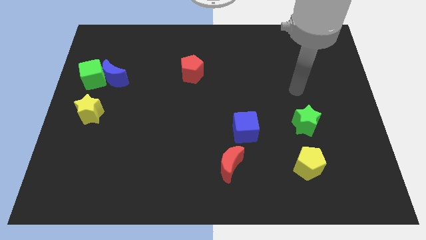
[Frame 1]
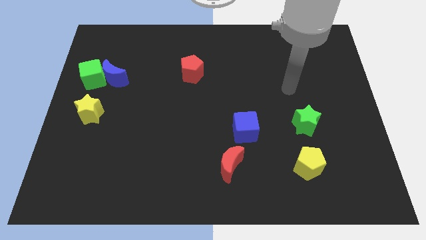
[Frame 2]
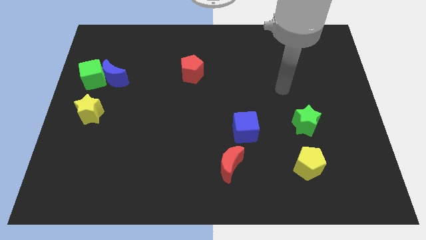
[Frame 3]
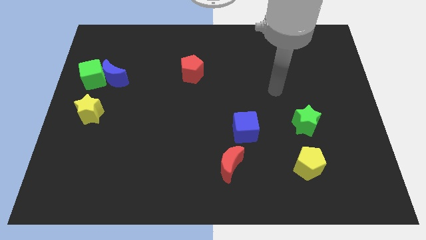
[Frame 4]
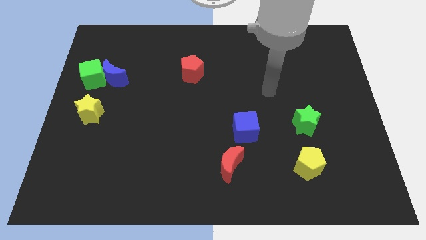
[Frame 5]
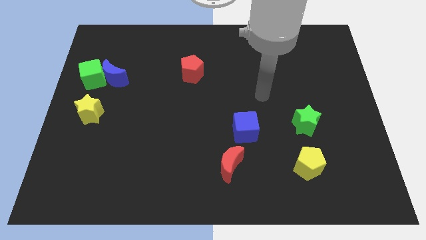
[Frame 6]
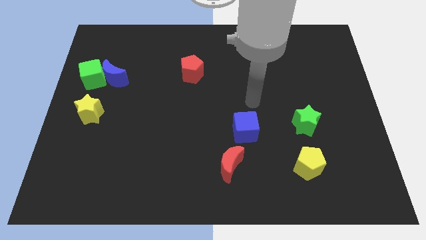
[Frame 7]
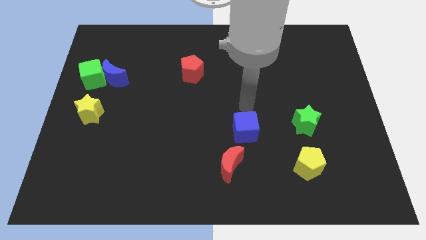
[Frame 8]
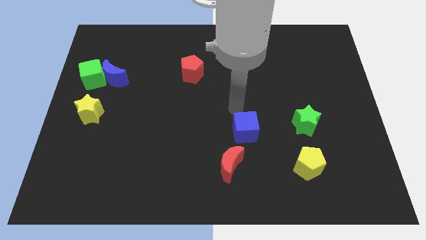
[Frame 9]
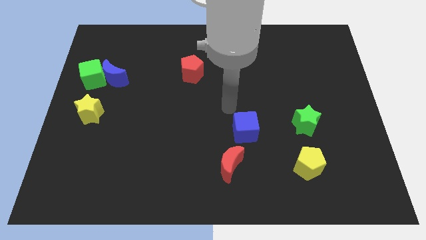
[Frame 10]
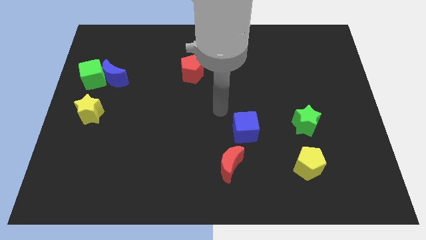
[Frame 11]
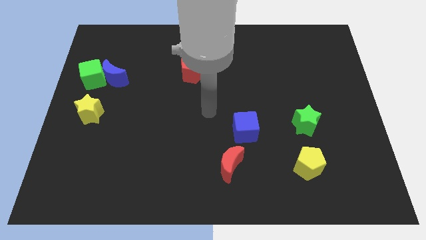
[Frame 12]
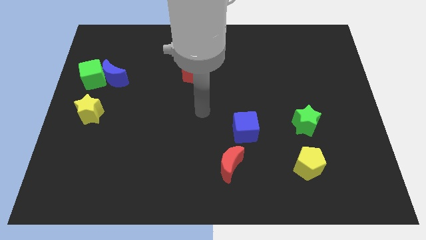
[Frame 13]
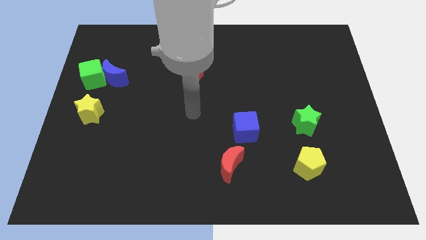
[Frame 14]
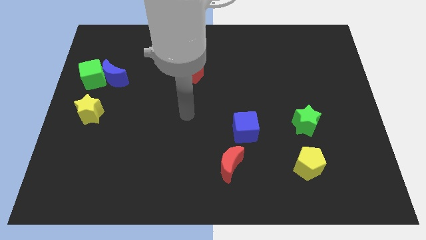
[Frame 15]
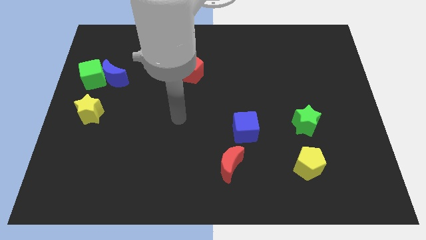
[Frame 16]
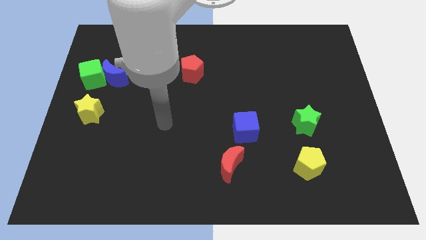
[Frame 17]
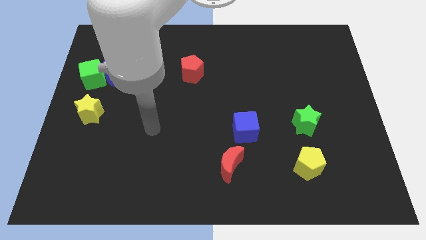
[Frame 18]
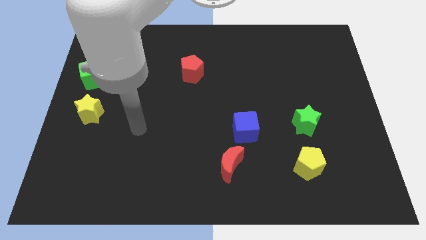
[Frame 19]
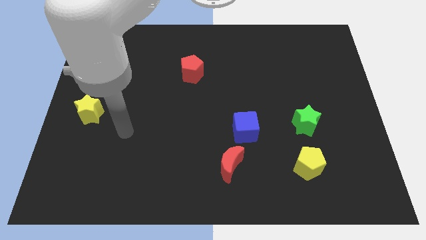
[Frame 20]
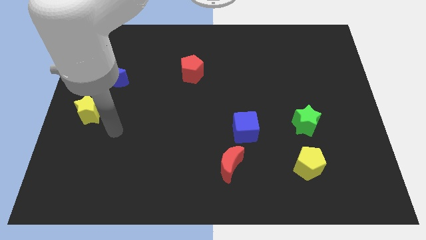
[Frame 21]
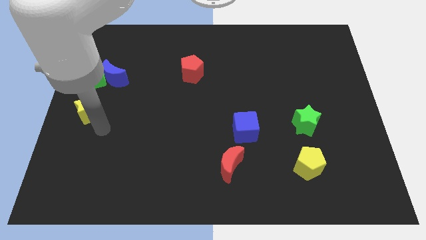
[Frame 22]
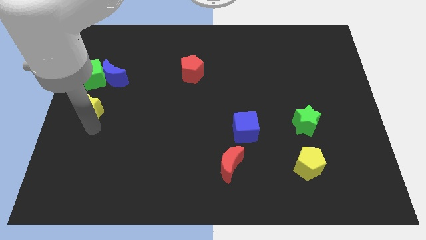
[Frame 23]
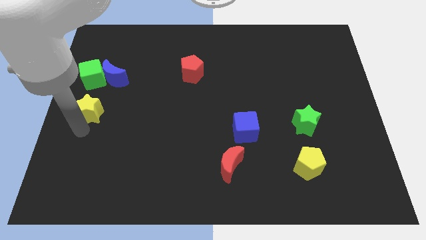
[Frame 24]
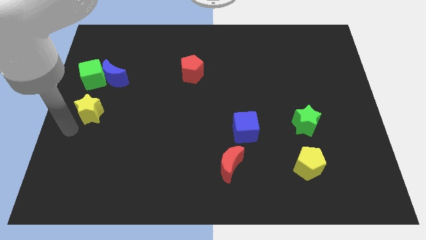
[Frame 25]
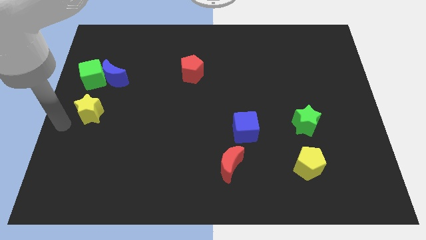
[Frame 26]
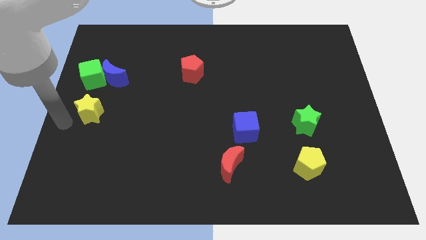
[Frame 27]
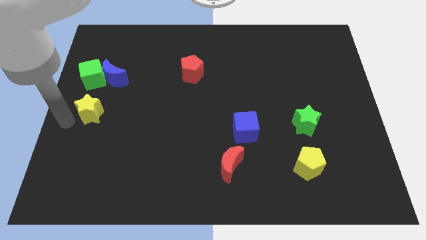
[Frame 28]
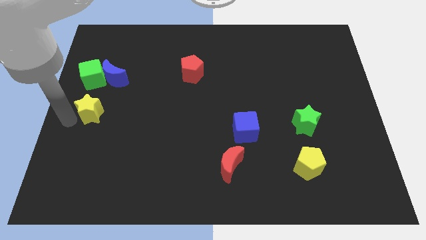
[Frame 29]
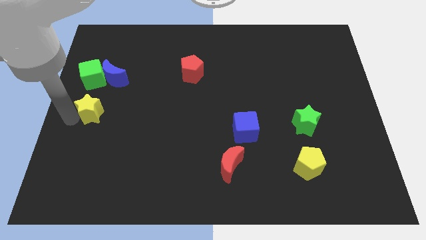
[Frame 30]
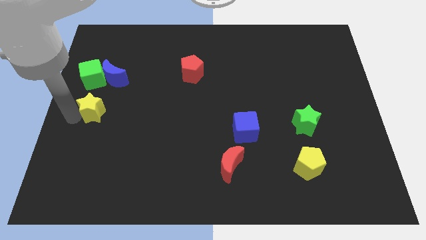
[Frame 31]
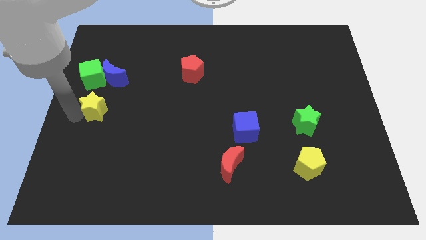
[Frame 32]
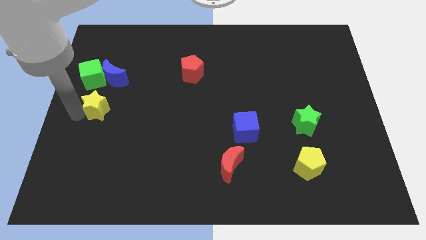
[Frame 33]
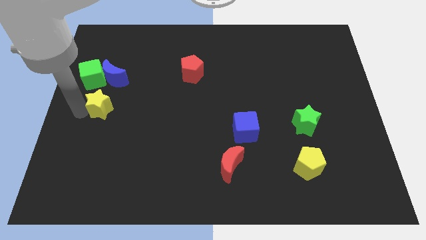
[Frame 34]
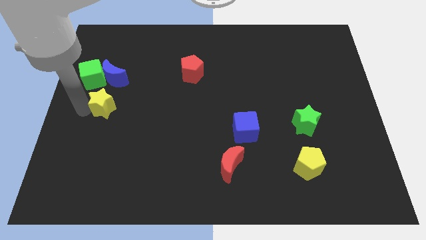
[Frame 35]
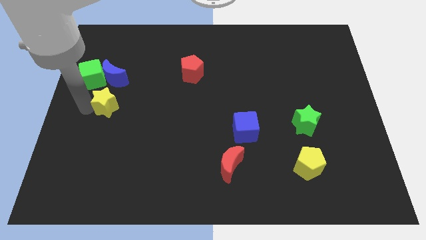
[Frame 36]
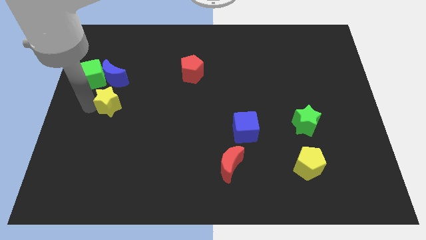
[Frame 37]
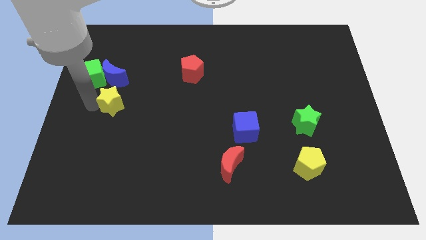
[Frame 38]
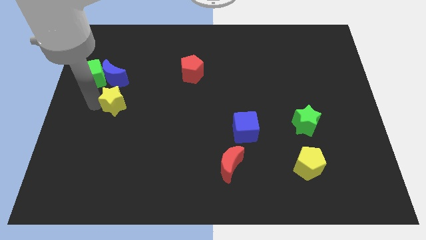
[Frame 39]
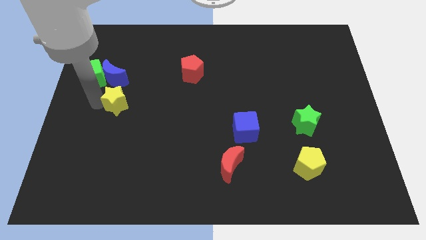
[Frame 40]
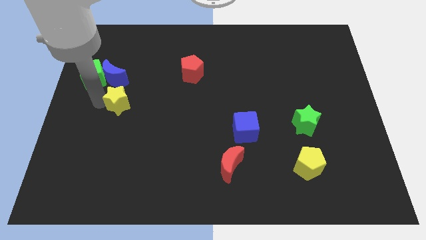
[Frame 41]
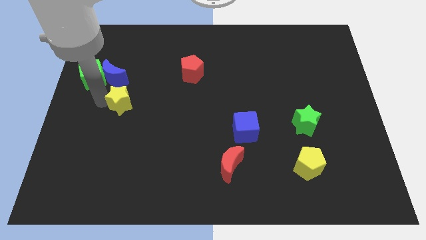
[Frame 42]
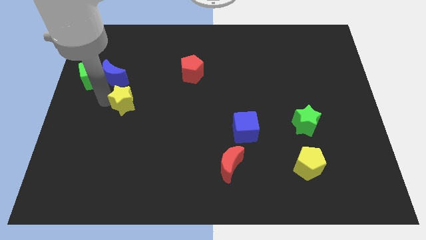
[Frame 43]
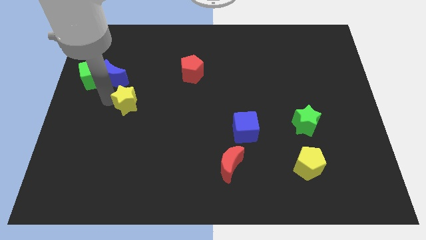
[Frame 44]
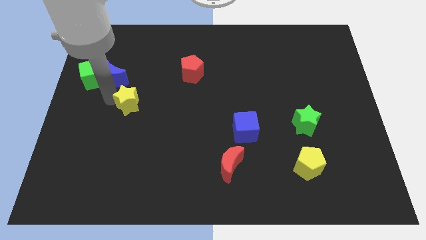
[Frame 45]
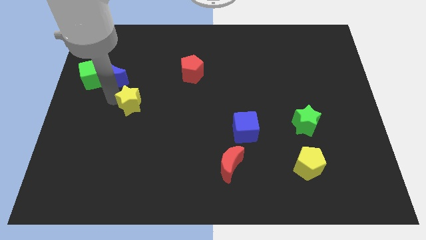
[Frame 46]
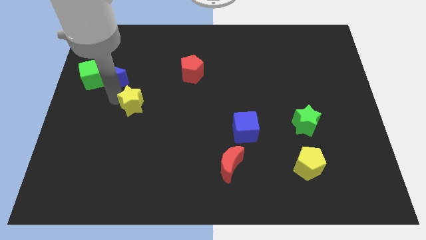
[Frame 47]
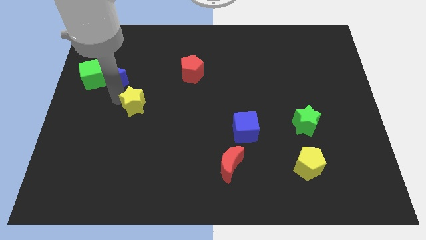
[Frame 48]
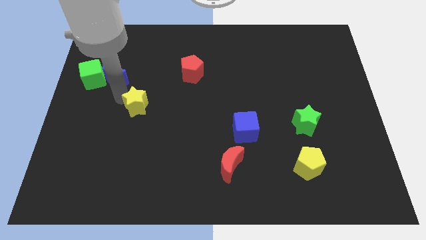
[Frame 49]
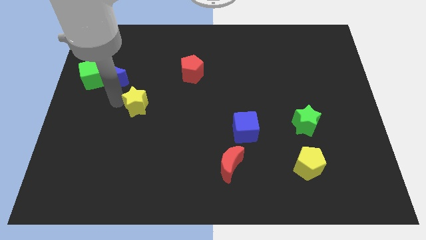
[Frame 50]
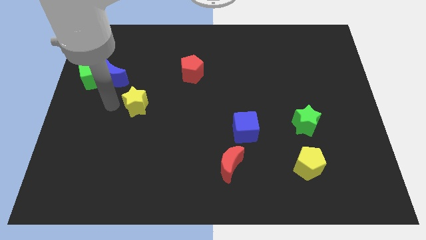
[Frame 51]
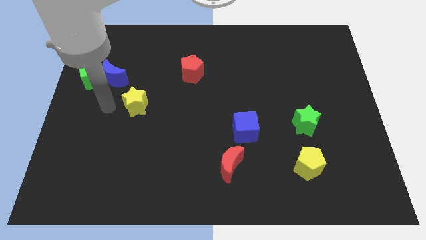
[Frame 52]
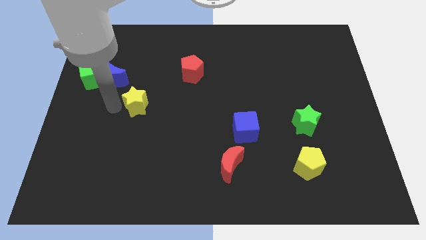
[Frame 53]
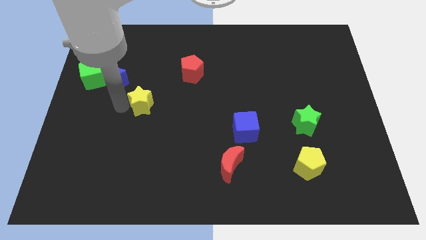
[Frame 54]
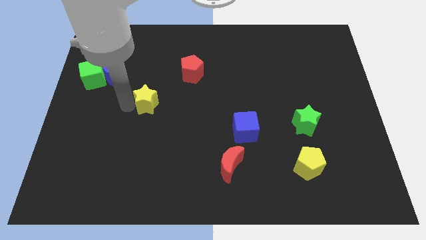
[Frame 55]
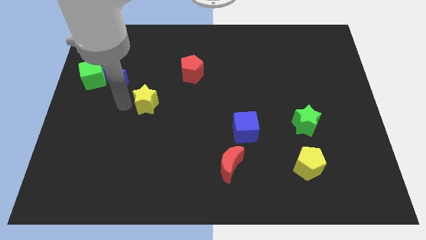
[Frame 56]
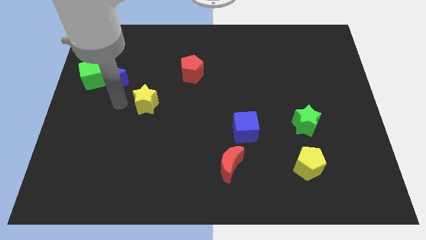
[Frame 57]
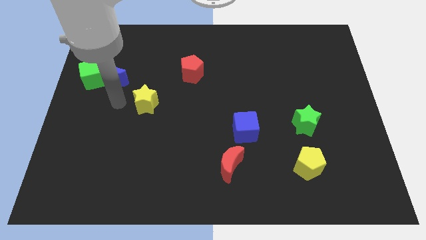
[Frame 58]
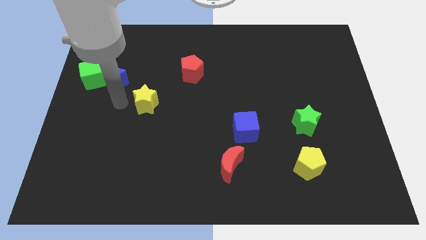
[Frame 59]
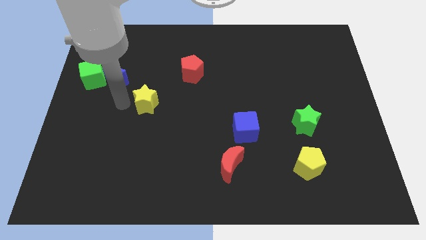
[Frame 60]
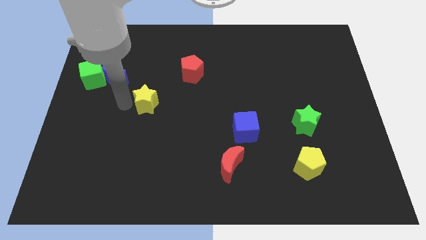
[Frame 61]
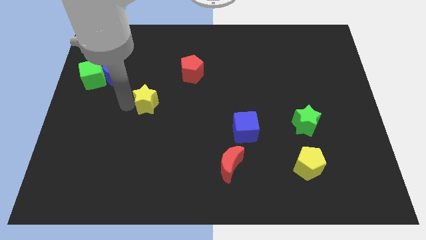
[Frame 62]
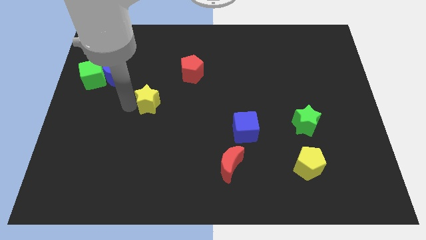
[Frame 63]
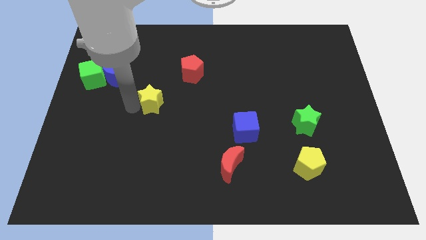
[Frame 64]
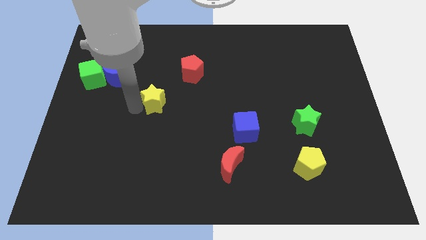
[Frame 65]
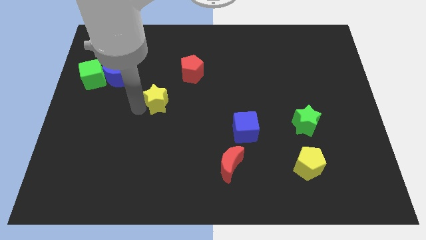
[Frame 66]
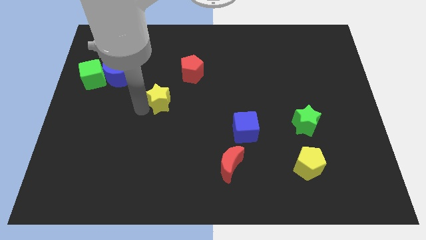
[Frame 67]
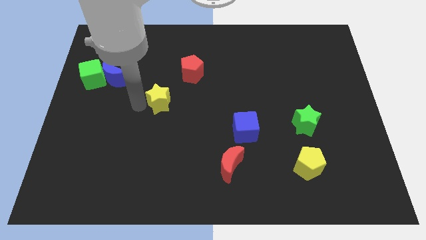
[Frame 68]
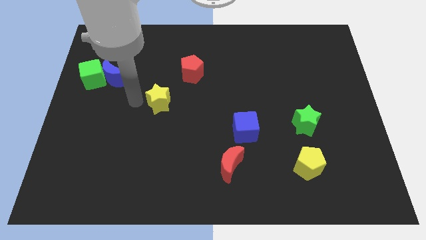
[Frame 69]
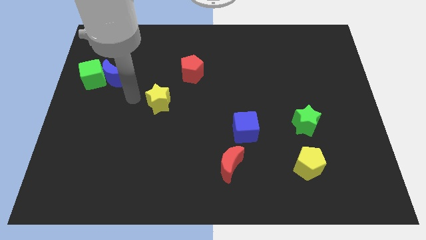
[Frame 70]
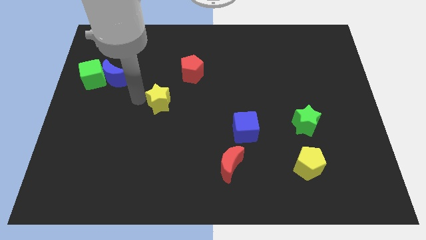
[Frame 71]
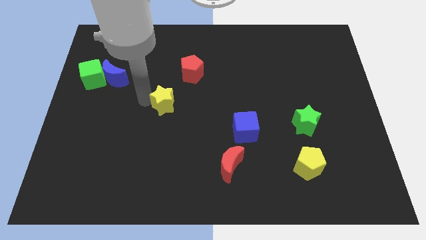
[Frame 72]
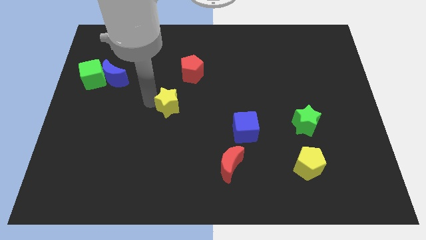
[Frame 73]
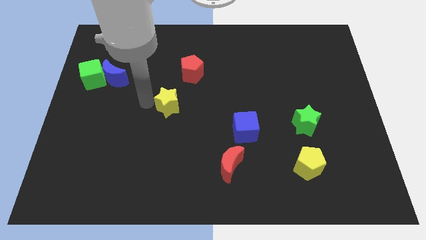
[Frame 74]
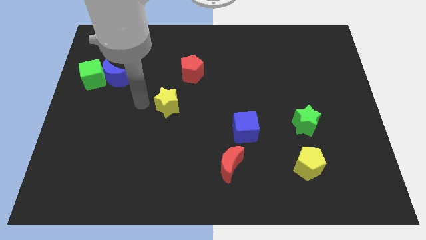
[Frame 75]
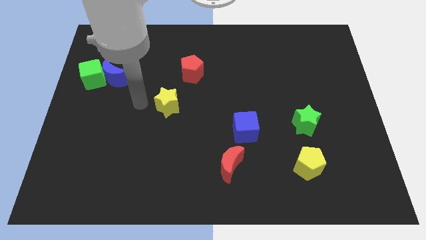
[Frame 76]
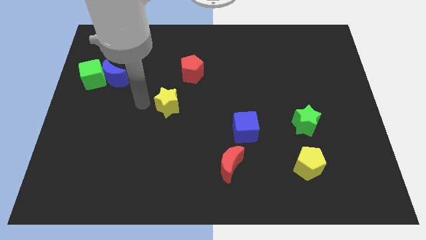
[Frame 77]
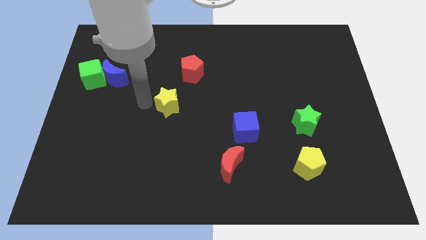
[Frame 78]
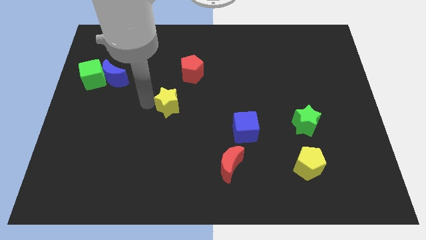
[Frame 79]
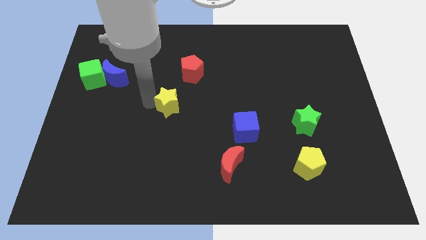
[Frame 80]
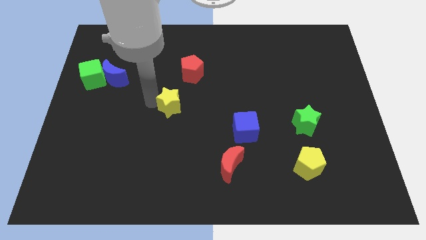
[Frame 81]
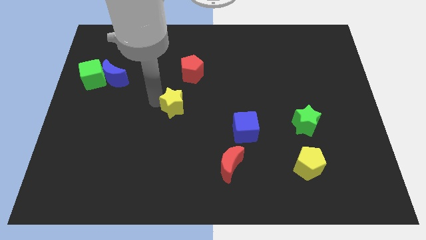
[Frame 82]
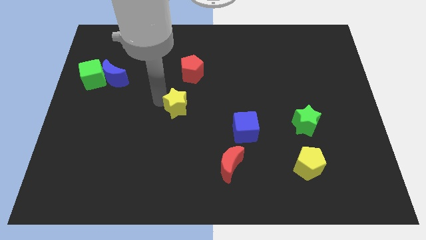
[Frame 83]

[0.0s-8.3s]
slide the yellow star right
